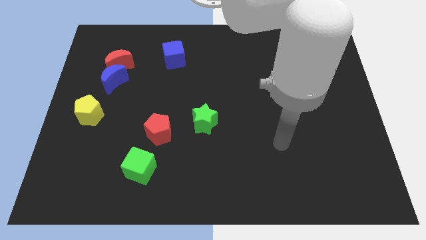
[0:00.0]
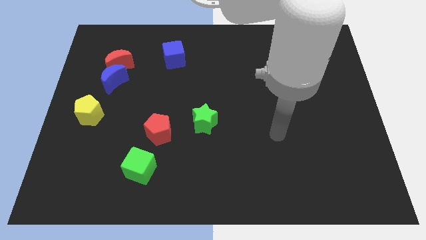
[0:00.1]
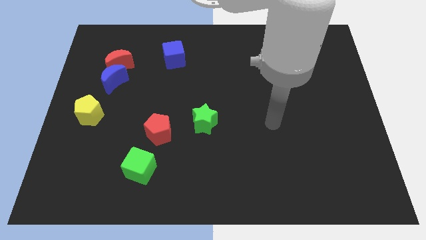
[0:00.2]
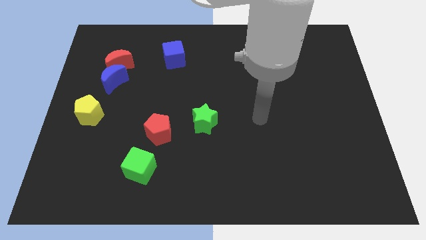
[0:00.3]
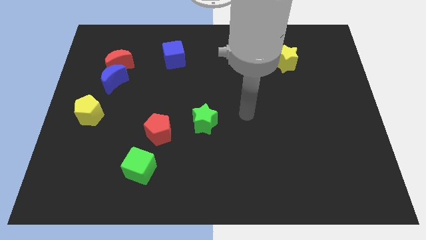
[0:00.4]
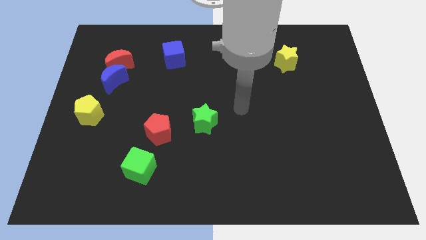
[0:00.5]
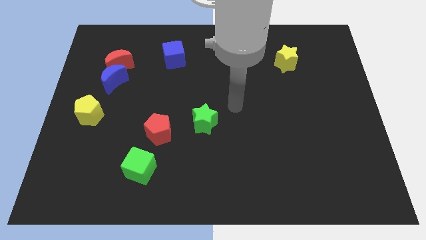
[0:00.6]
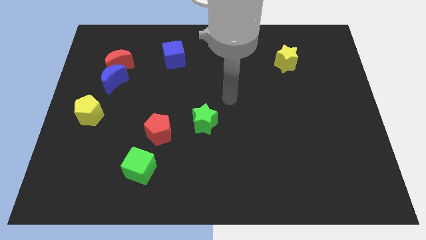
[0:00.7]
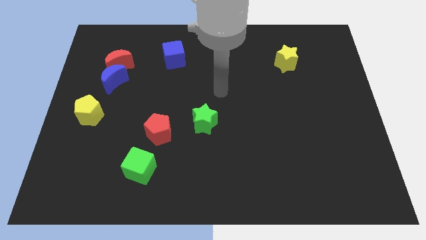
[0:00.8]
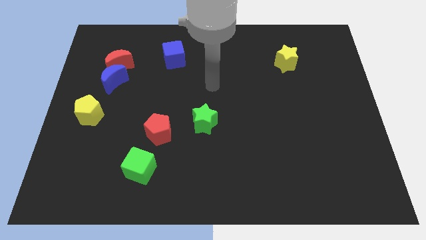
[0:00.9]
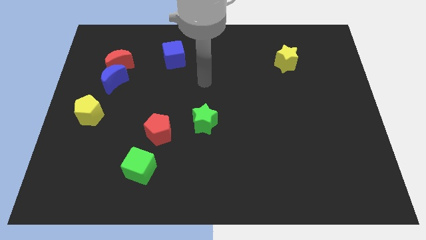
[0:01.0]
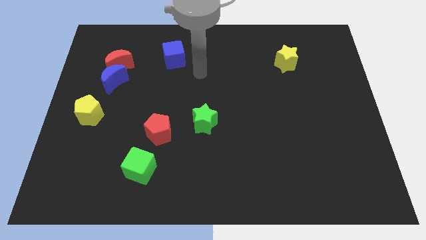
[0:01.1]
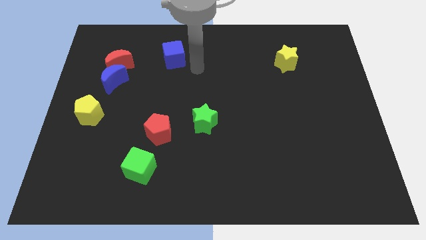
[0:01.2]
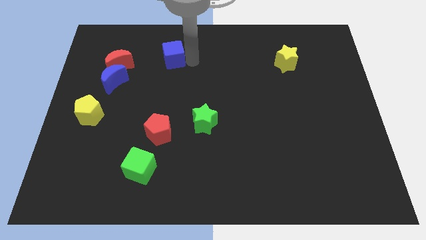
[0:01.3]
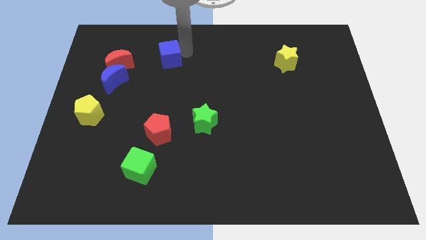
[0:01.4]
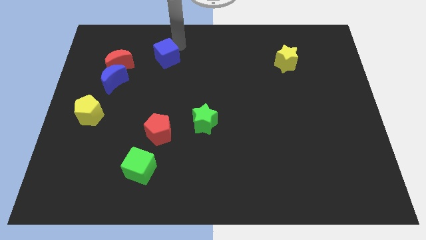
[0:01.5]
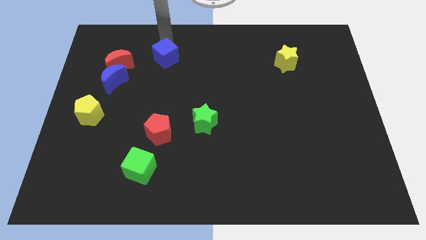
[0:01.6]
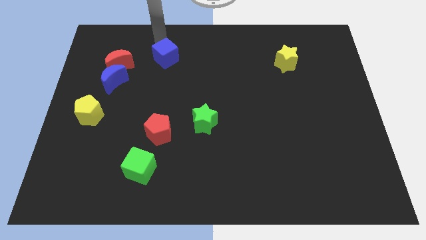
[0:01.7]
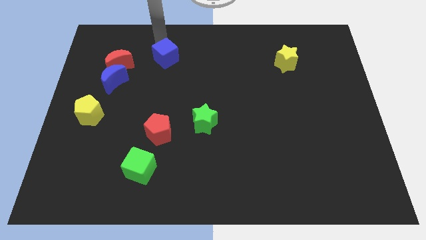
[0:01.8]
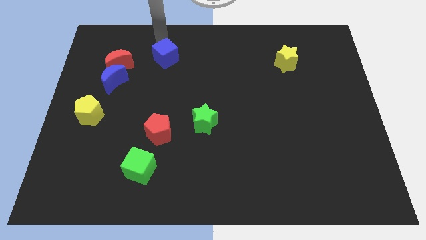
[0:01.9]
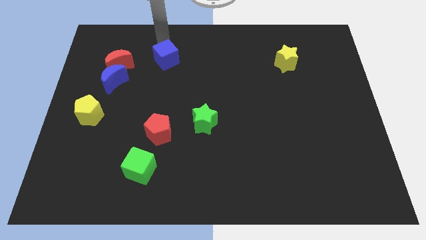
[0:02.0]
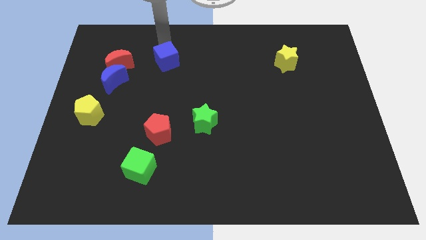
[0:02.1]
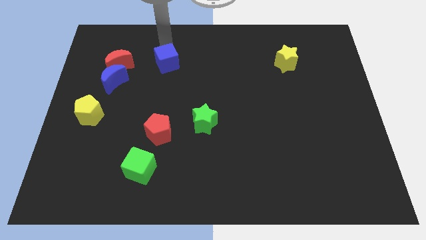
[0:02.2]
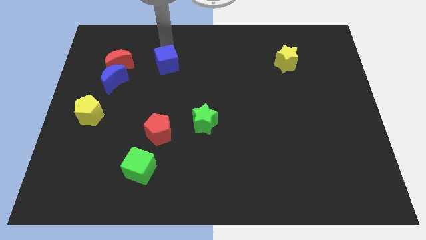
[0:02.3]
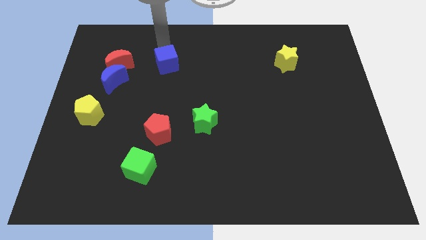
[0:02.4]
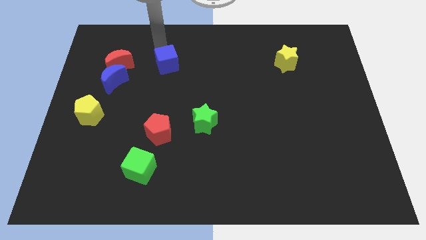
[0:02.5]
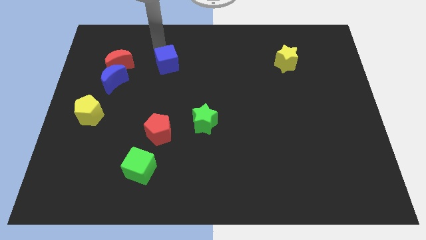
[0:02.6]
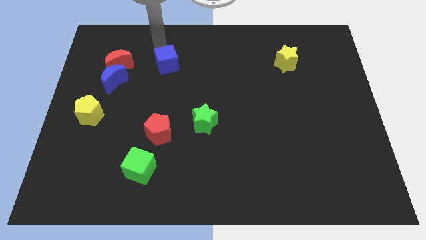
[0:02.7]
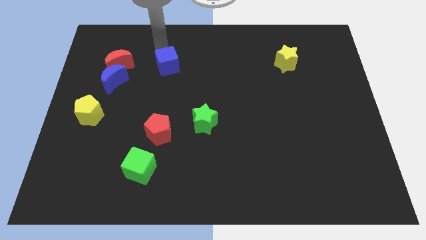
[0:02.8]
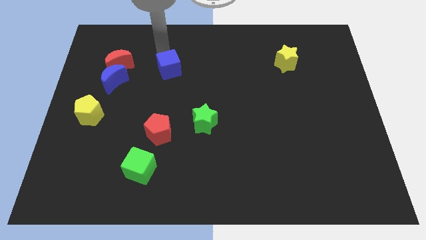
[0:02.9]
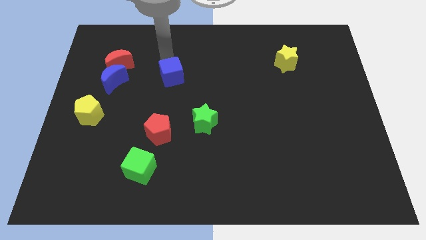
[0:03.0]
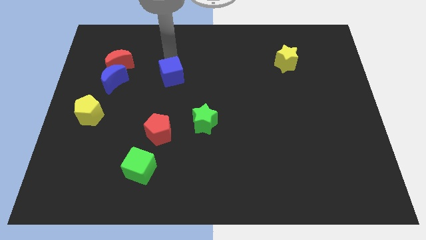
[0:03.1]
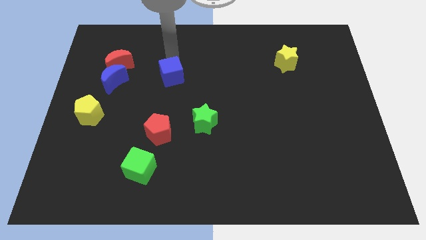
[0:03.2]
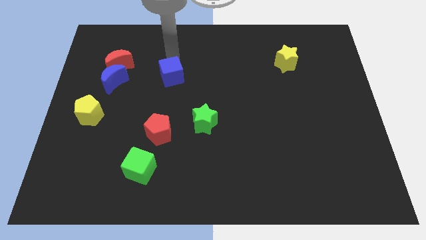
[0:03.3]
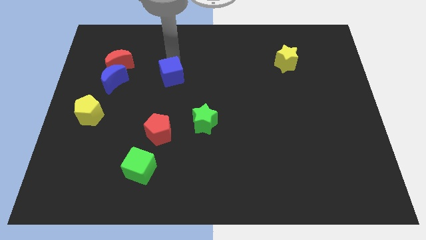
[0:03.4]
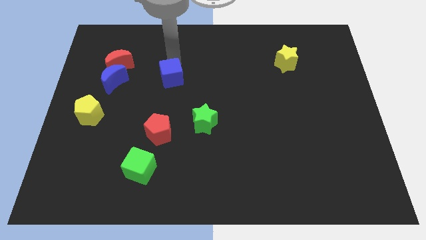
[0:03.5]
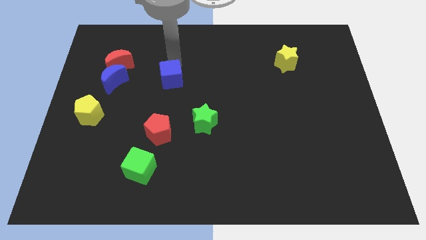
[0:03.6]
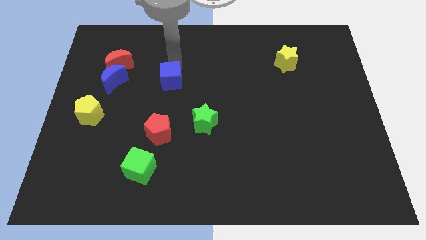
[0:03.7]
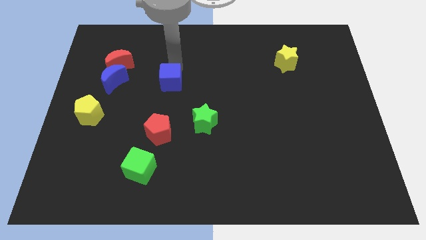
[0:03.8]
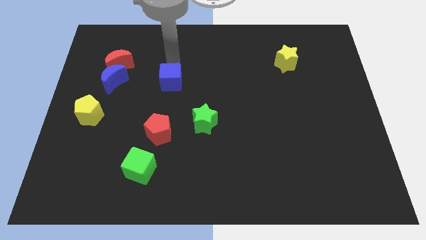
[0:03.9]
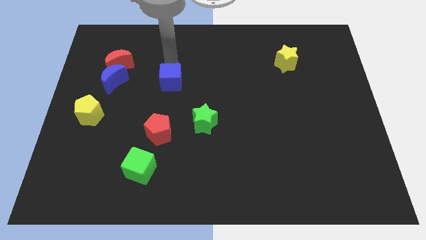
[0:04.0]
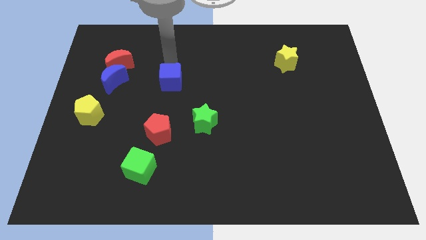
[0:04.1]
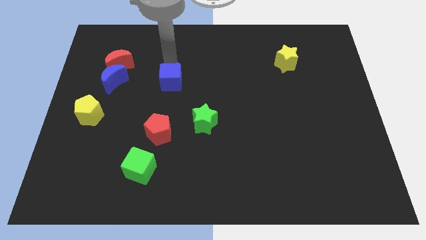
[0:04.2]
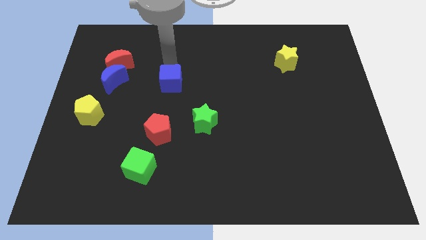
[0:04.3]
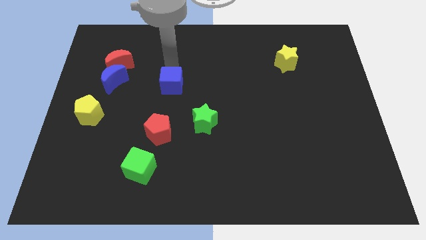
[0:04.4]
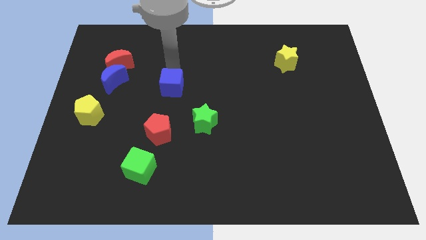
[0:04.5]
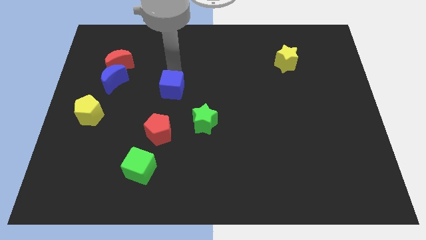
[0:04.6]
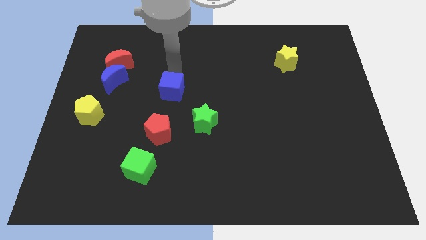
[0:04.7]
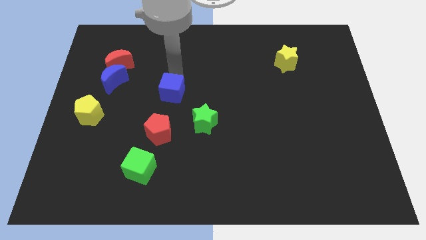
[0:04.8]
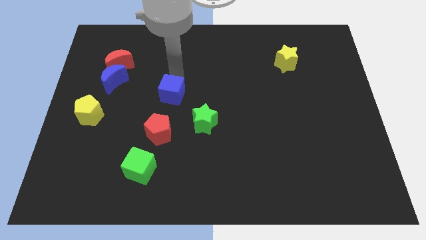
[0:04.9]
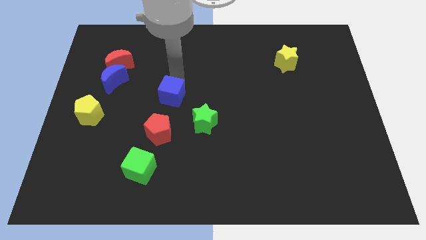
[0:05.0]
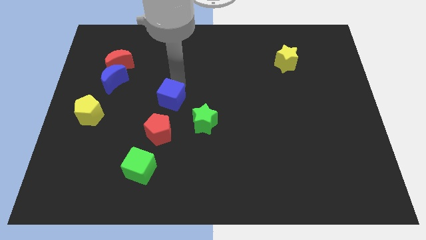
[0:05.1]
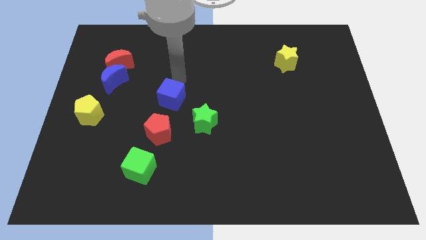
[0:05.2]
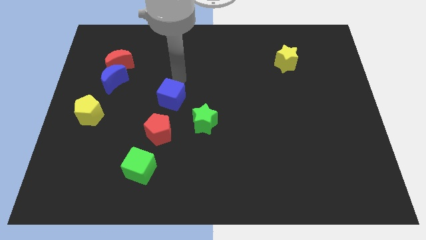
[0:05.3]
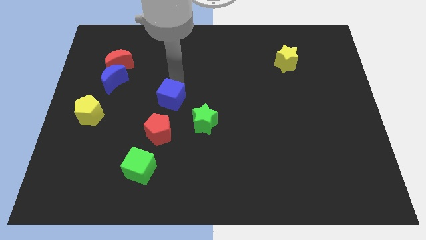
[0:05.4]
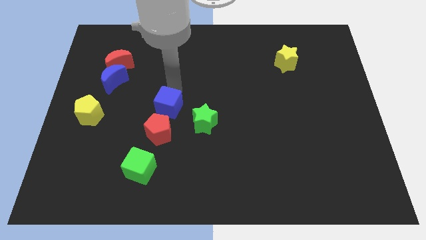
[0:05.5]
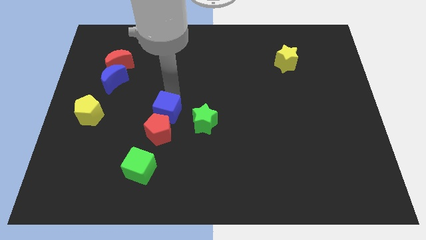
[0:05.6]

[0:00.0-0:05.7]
slide the blue cube close to the red pentagon

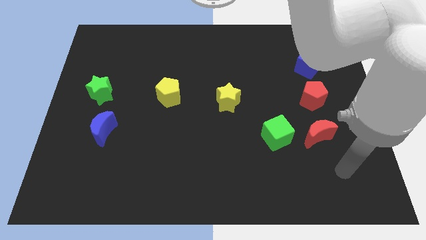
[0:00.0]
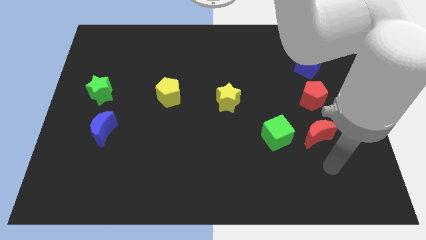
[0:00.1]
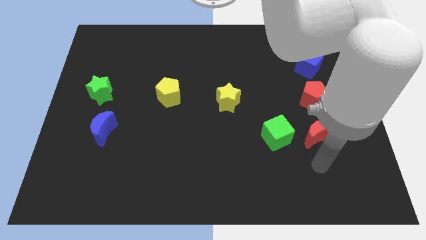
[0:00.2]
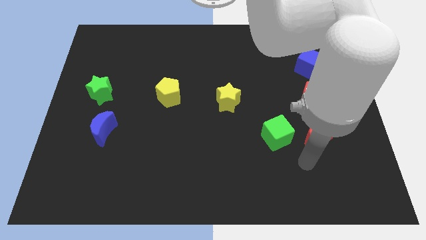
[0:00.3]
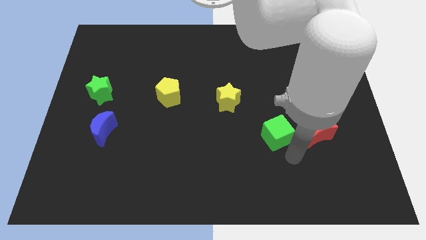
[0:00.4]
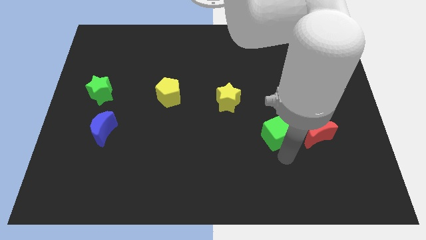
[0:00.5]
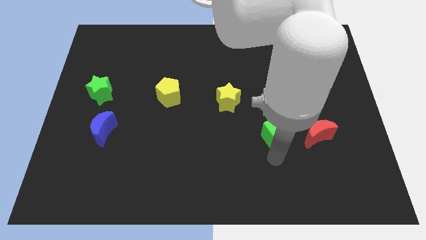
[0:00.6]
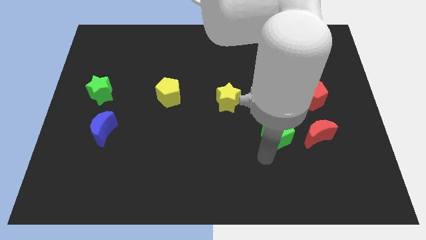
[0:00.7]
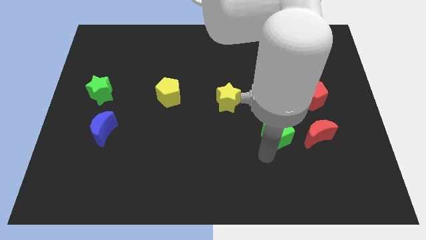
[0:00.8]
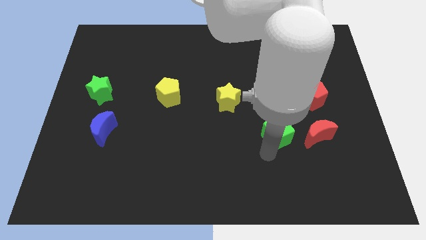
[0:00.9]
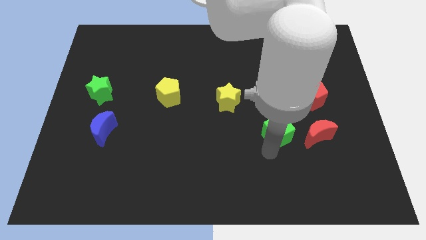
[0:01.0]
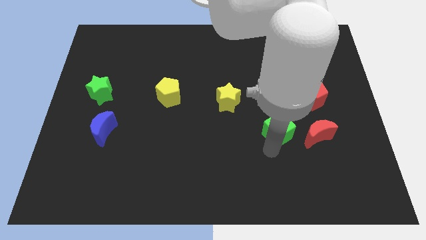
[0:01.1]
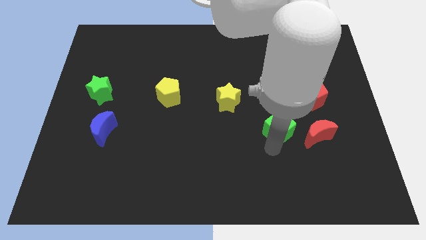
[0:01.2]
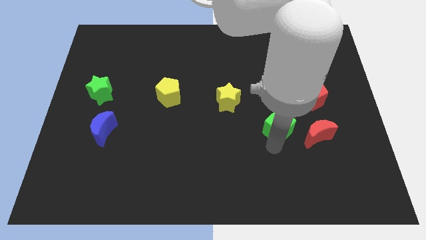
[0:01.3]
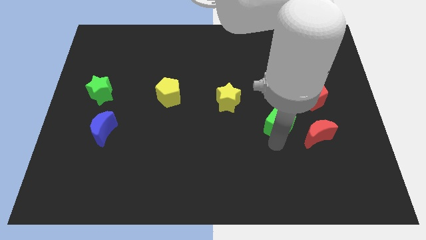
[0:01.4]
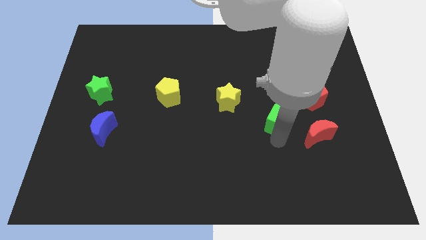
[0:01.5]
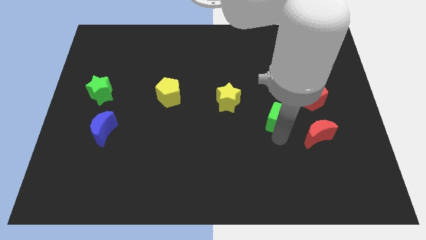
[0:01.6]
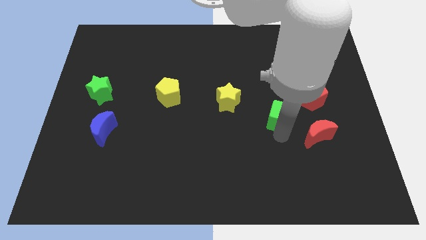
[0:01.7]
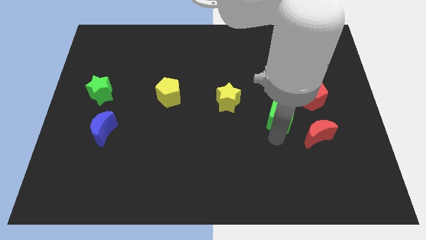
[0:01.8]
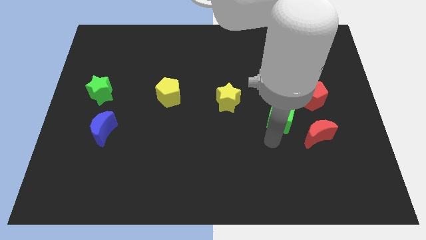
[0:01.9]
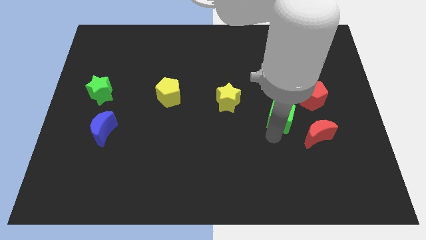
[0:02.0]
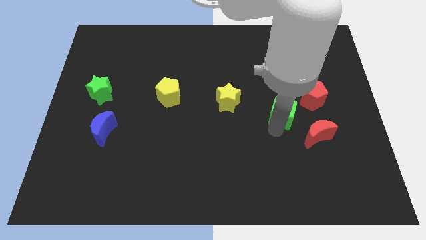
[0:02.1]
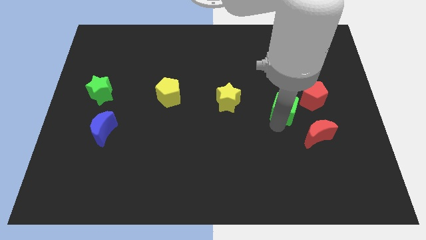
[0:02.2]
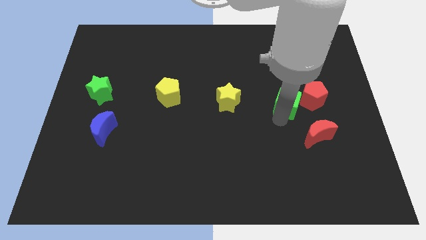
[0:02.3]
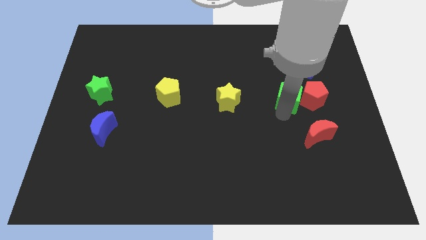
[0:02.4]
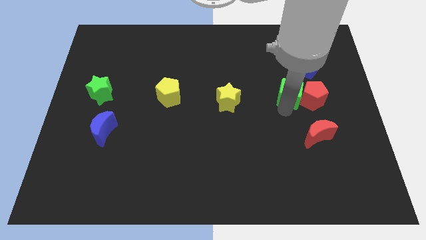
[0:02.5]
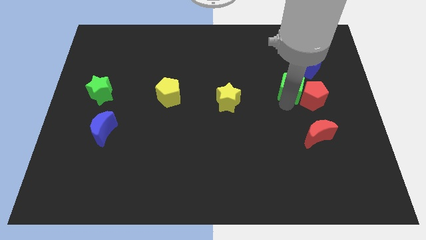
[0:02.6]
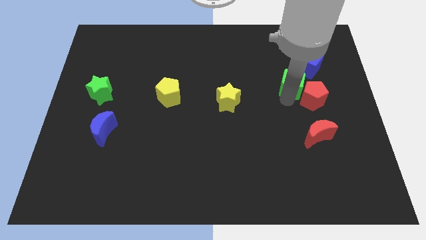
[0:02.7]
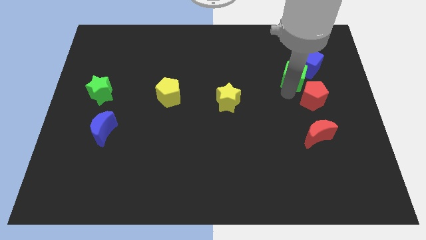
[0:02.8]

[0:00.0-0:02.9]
put the green cube close to the blue cube
